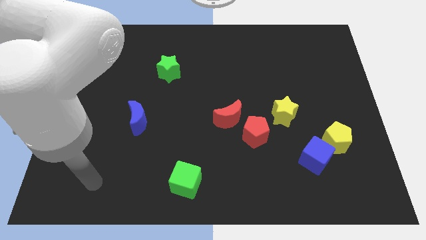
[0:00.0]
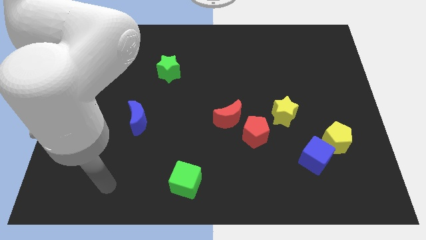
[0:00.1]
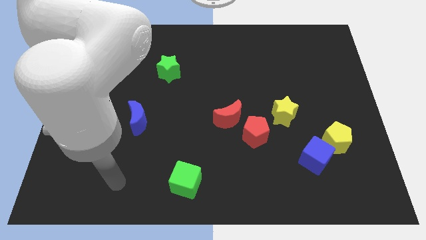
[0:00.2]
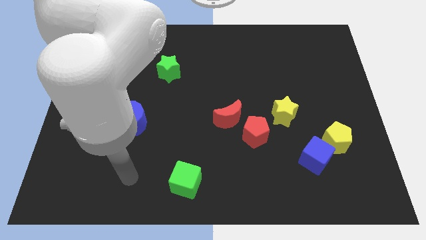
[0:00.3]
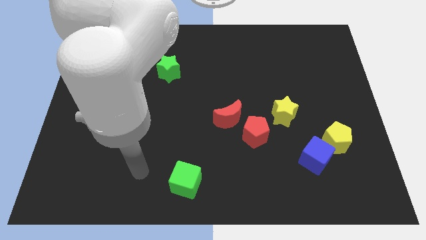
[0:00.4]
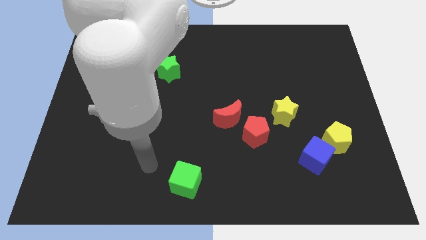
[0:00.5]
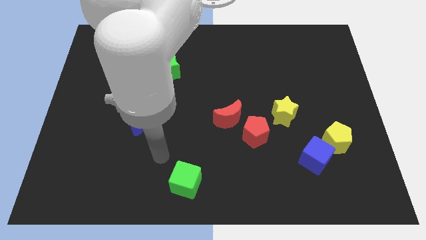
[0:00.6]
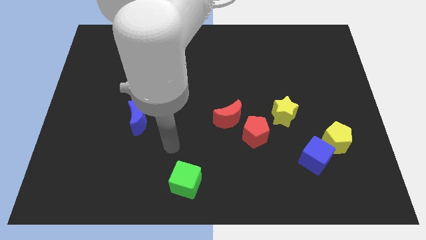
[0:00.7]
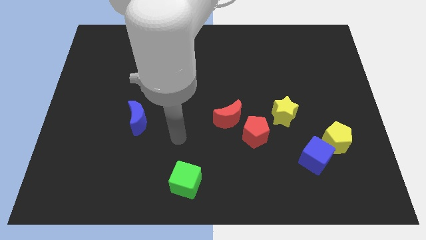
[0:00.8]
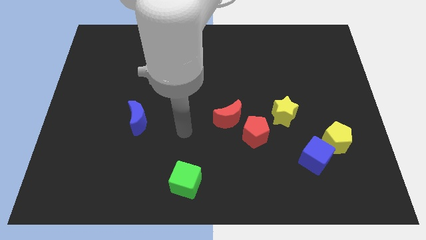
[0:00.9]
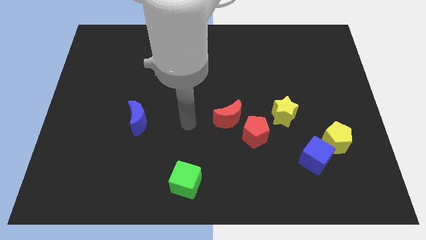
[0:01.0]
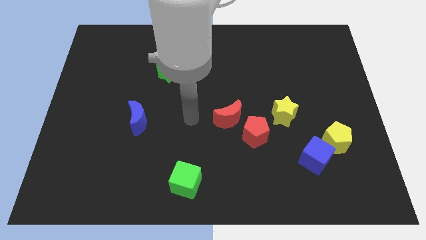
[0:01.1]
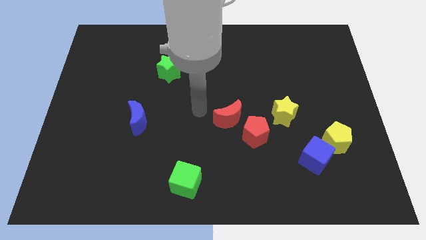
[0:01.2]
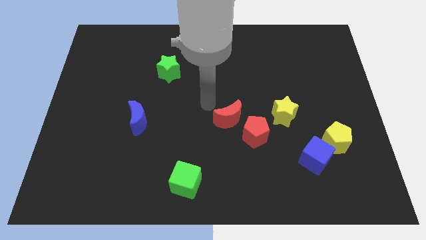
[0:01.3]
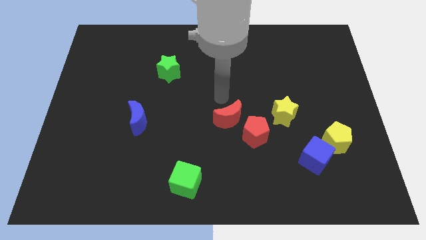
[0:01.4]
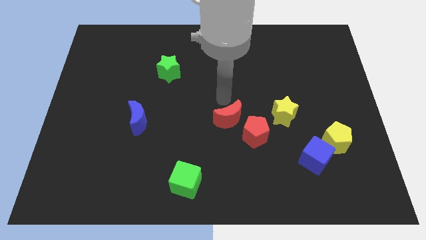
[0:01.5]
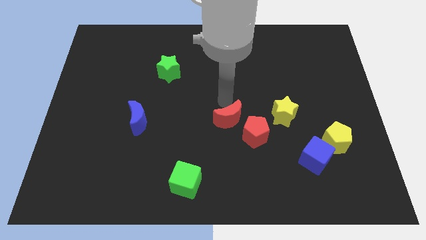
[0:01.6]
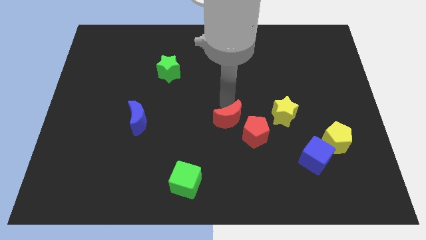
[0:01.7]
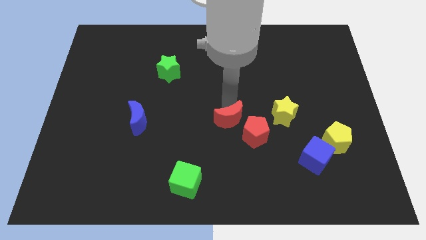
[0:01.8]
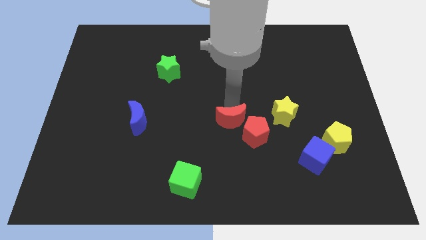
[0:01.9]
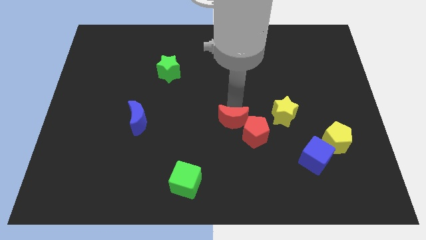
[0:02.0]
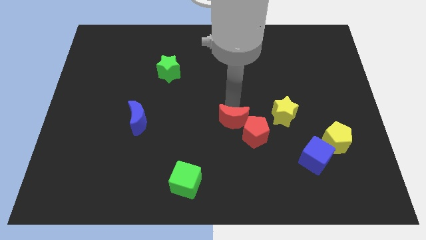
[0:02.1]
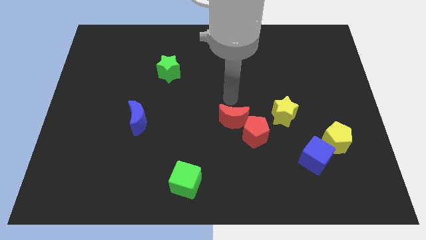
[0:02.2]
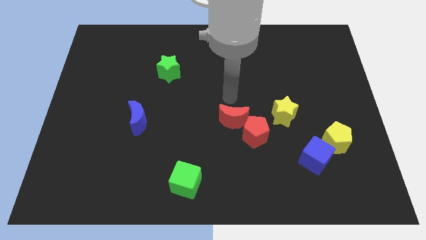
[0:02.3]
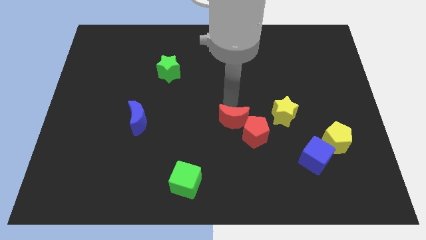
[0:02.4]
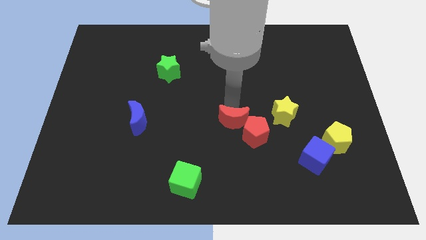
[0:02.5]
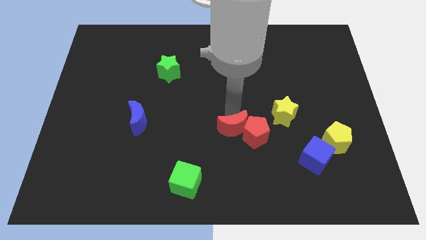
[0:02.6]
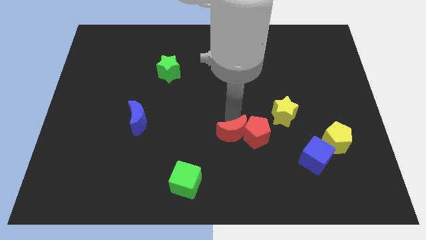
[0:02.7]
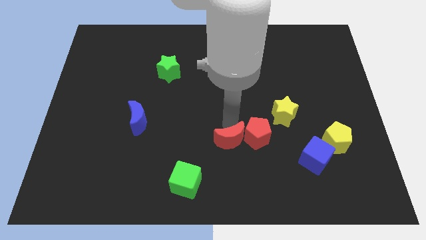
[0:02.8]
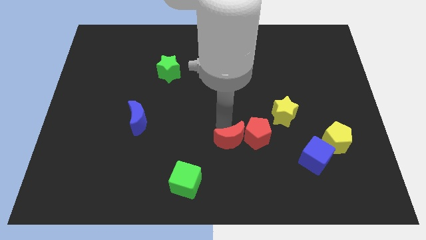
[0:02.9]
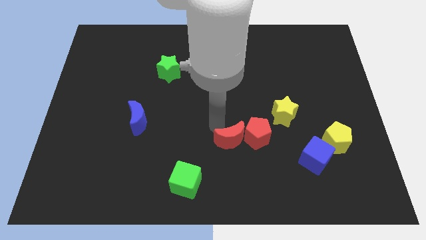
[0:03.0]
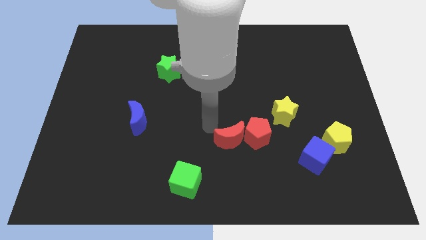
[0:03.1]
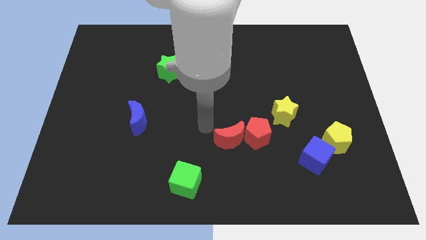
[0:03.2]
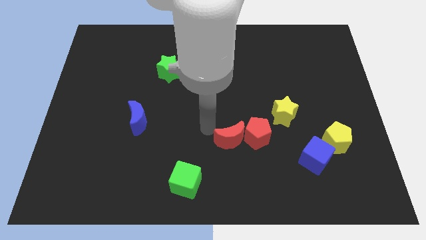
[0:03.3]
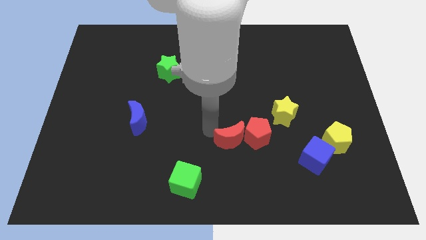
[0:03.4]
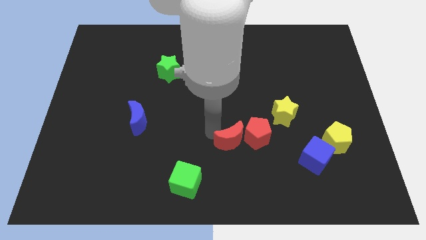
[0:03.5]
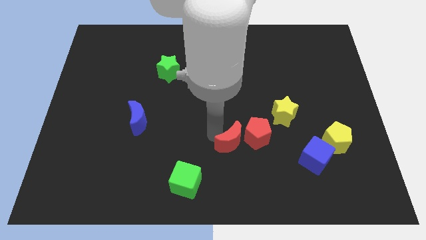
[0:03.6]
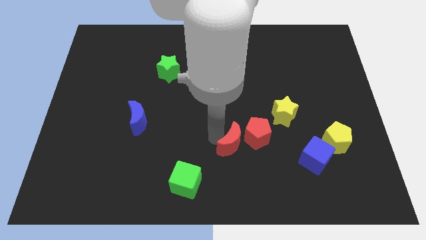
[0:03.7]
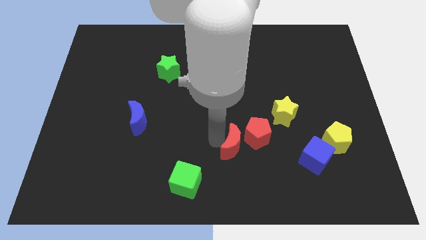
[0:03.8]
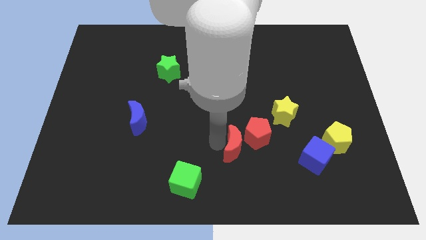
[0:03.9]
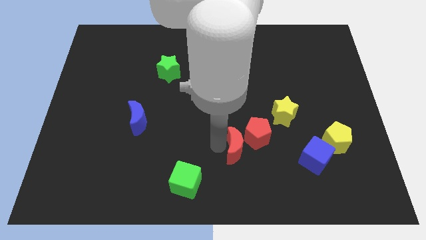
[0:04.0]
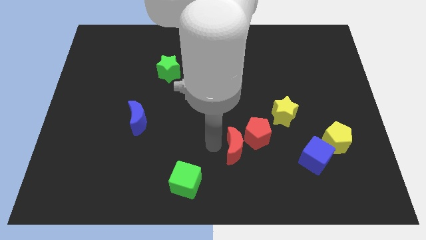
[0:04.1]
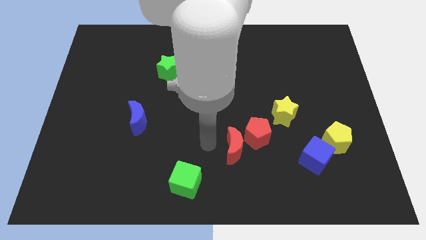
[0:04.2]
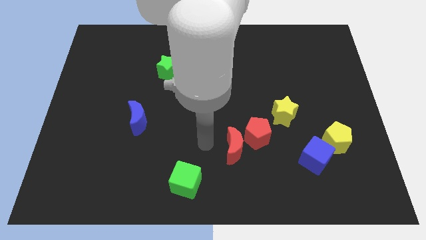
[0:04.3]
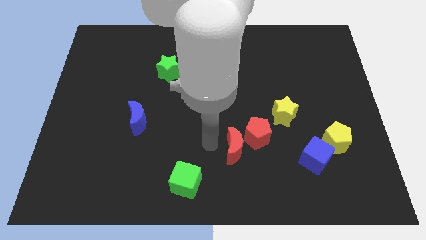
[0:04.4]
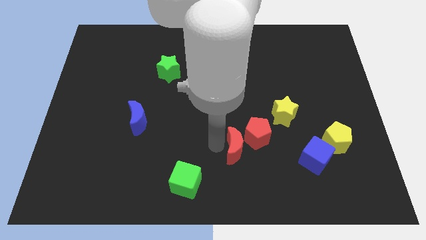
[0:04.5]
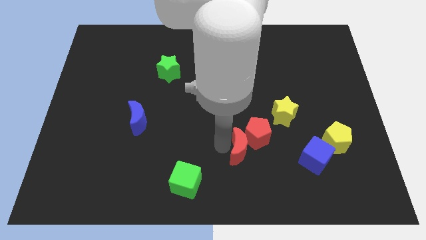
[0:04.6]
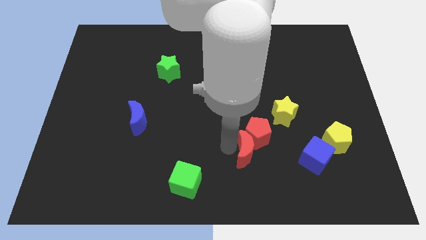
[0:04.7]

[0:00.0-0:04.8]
slide the red moon diagonally down and right a little bit

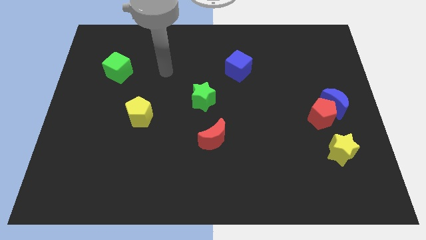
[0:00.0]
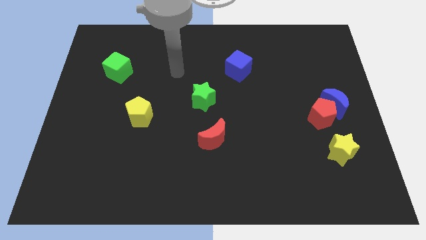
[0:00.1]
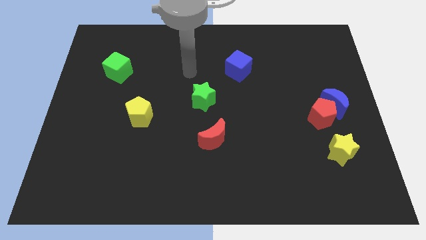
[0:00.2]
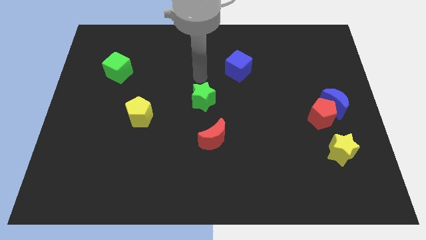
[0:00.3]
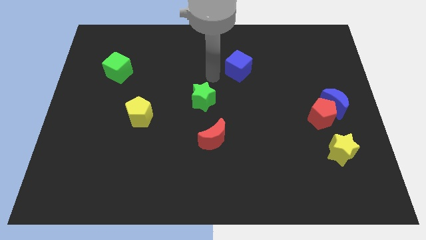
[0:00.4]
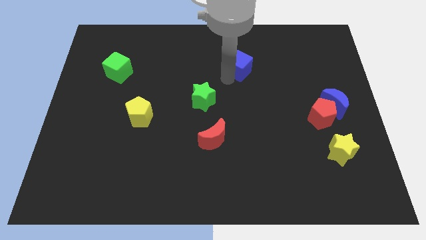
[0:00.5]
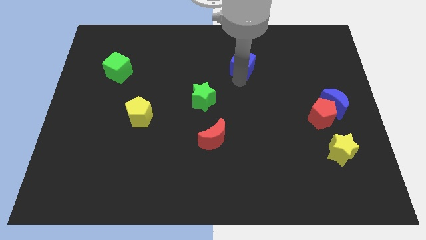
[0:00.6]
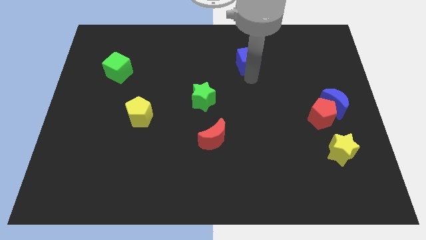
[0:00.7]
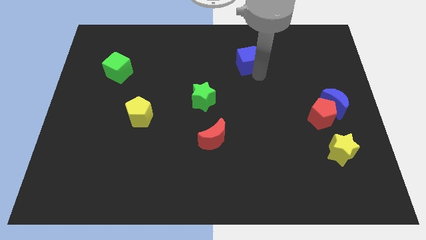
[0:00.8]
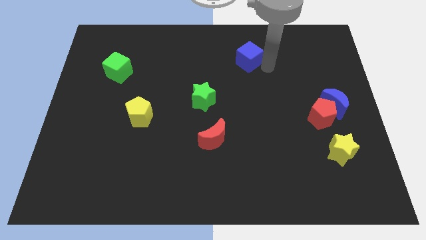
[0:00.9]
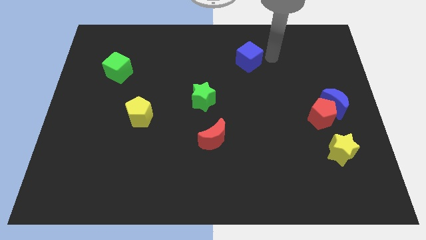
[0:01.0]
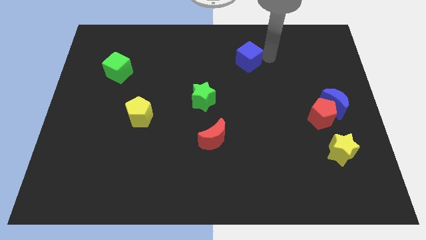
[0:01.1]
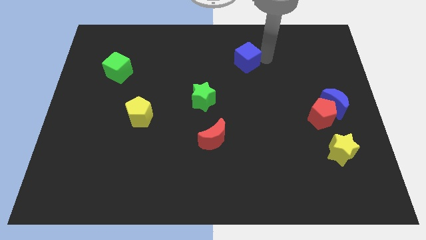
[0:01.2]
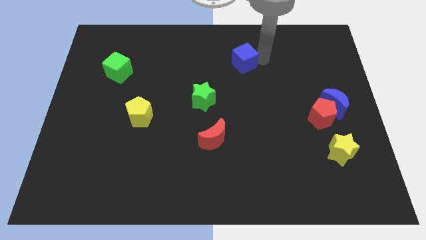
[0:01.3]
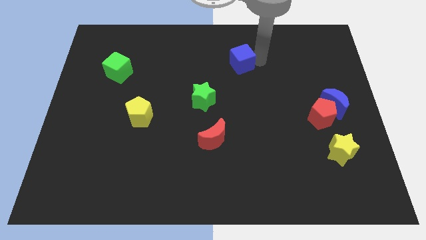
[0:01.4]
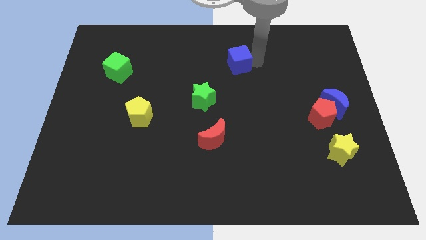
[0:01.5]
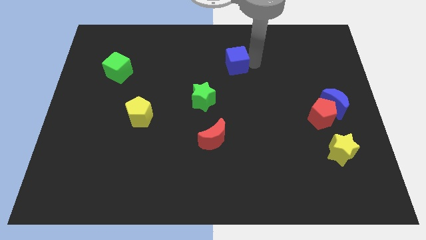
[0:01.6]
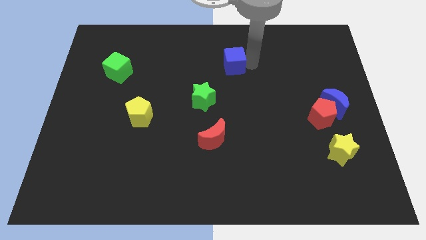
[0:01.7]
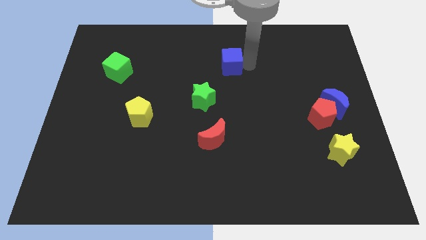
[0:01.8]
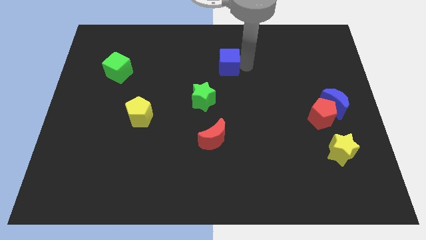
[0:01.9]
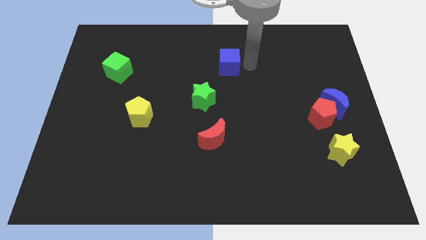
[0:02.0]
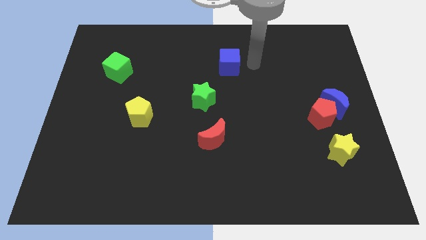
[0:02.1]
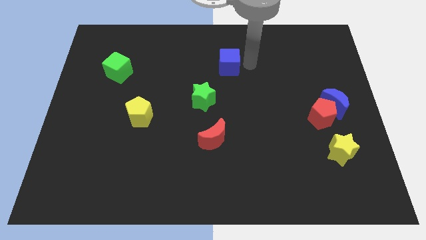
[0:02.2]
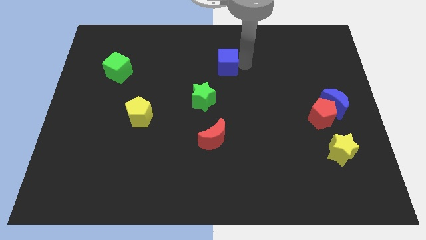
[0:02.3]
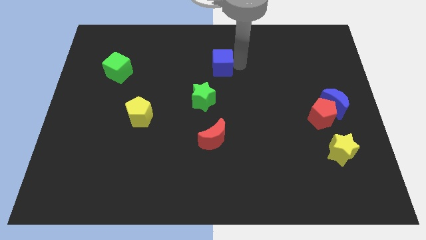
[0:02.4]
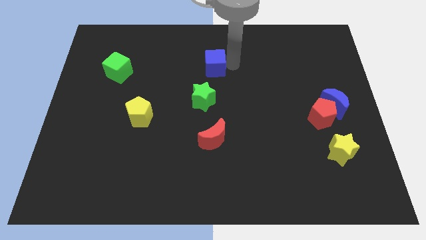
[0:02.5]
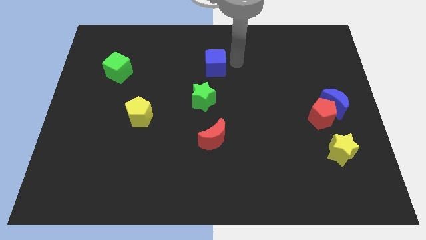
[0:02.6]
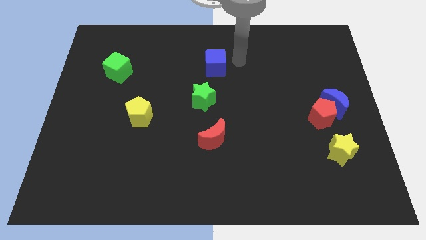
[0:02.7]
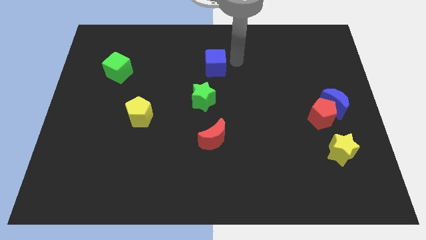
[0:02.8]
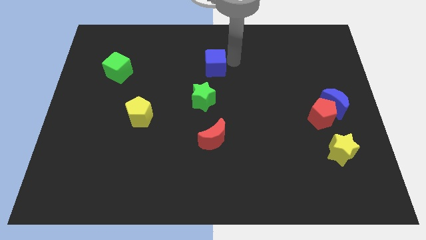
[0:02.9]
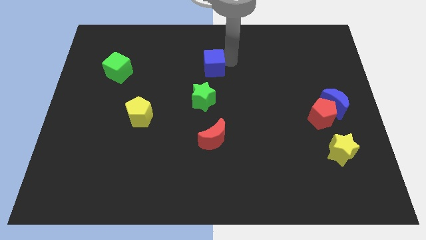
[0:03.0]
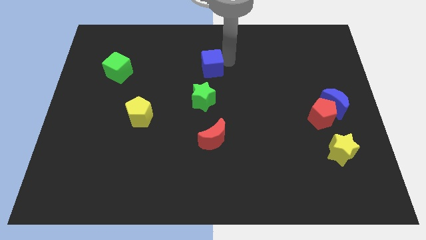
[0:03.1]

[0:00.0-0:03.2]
slightly push the blue cube left
